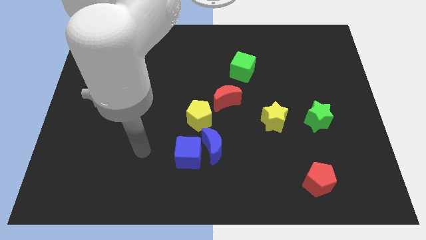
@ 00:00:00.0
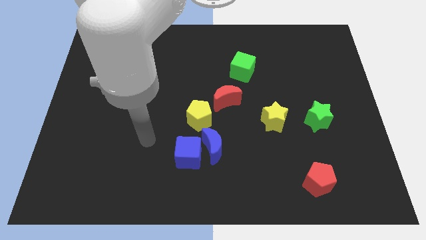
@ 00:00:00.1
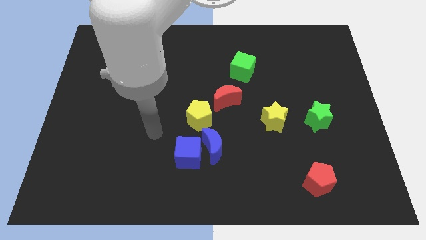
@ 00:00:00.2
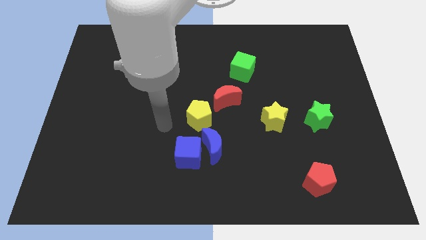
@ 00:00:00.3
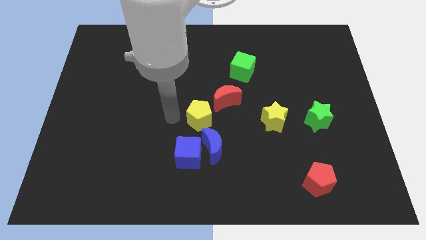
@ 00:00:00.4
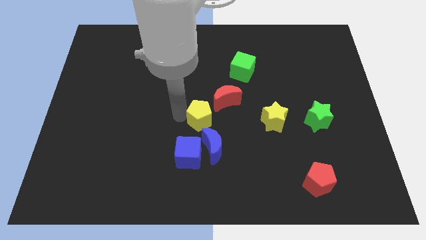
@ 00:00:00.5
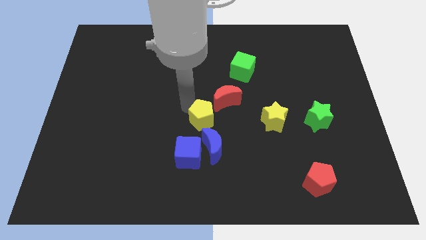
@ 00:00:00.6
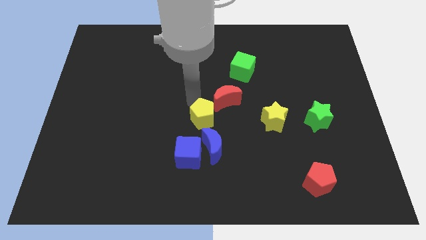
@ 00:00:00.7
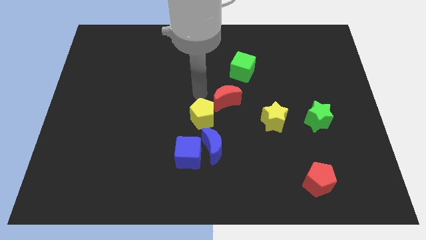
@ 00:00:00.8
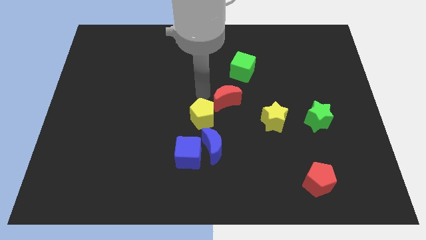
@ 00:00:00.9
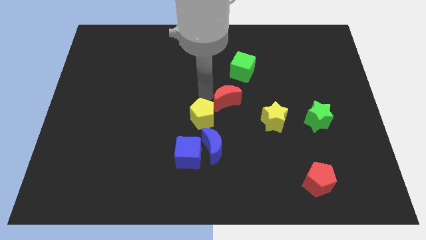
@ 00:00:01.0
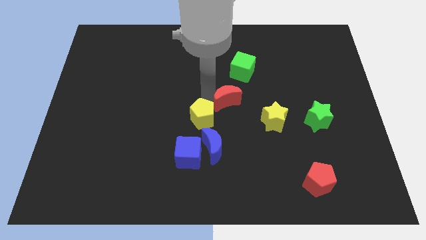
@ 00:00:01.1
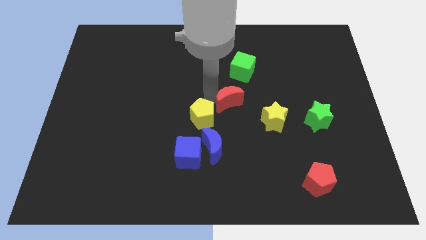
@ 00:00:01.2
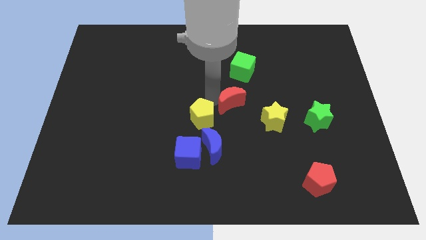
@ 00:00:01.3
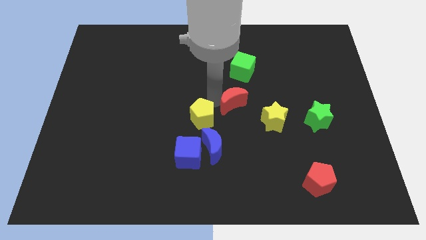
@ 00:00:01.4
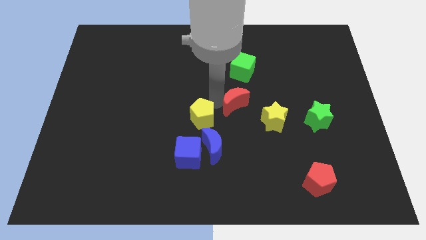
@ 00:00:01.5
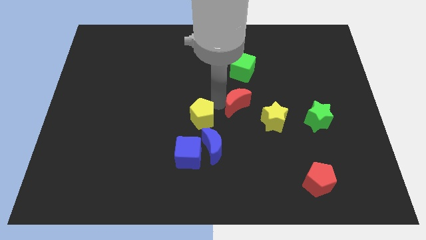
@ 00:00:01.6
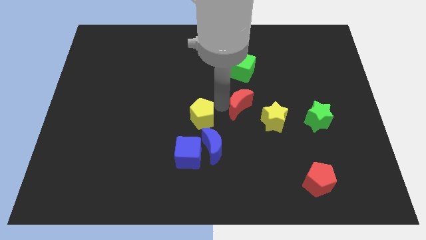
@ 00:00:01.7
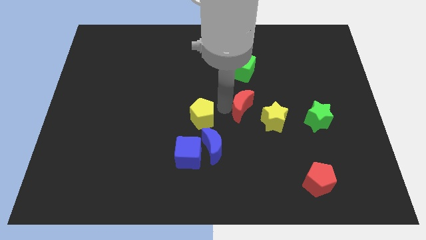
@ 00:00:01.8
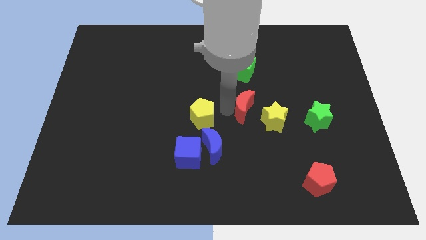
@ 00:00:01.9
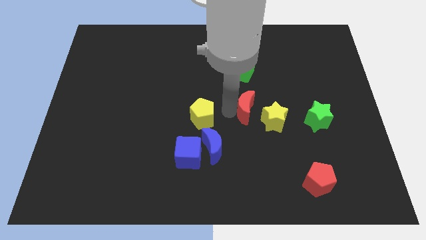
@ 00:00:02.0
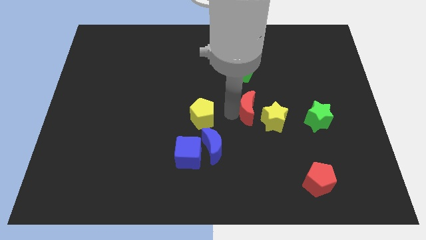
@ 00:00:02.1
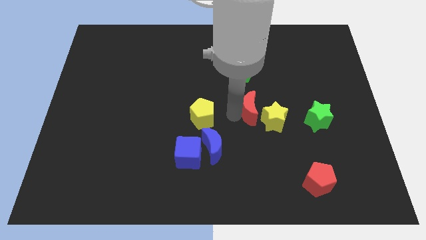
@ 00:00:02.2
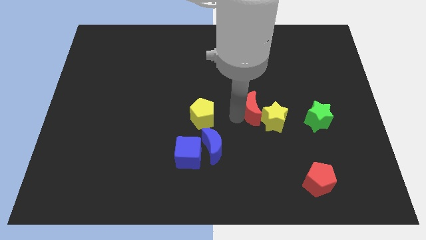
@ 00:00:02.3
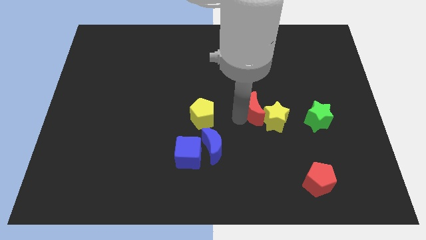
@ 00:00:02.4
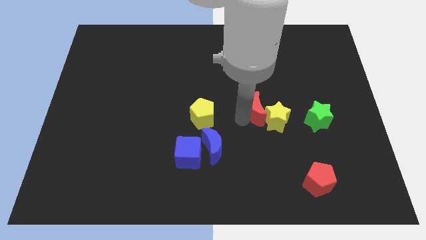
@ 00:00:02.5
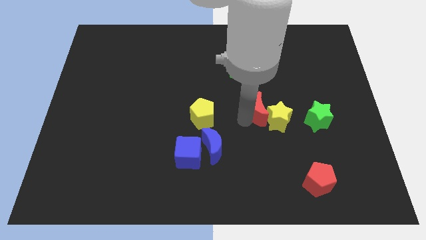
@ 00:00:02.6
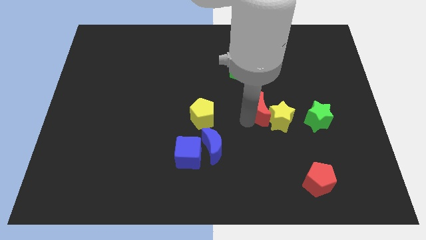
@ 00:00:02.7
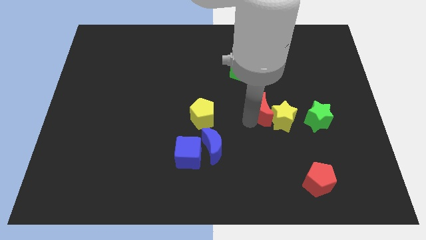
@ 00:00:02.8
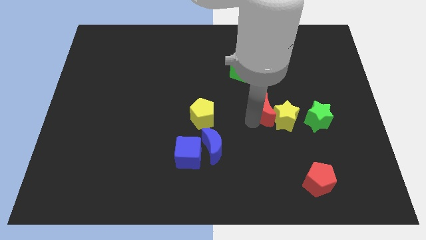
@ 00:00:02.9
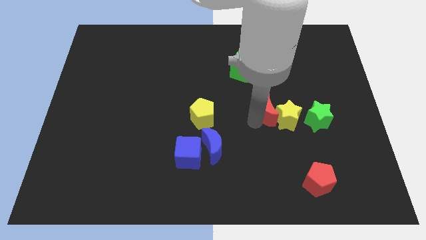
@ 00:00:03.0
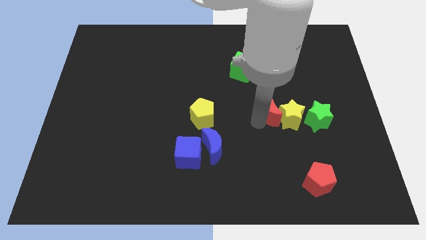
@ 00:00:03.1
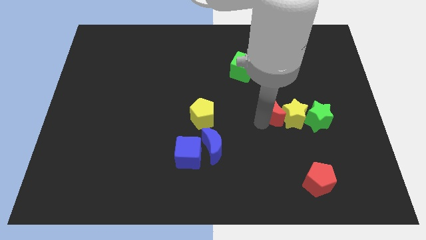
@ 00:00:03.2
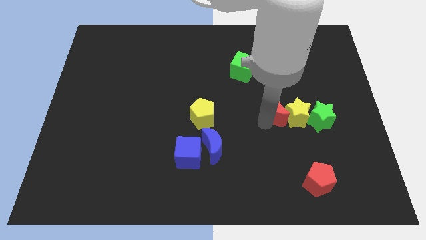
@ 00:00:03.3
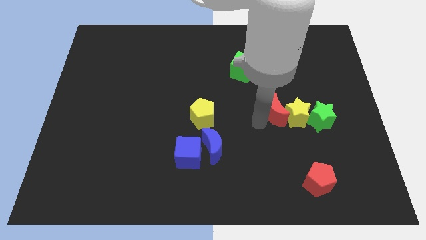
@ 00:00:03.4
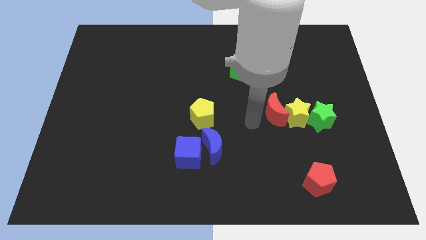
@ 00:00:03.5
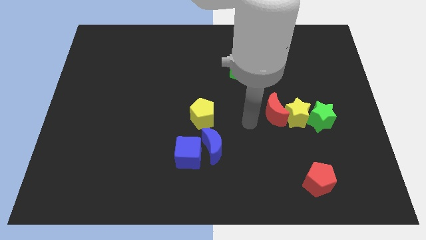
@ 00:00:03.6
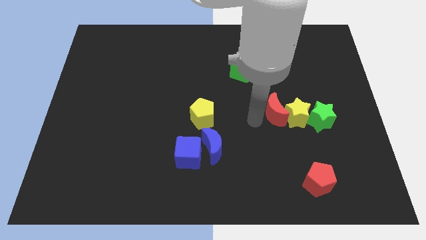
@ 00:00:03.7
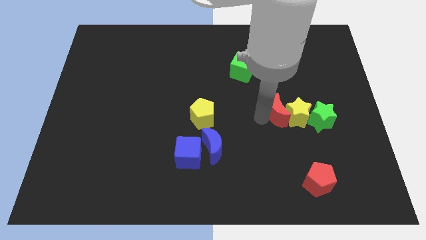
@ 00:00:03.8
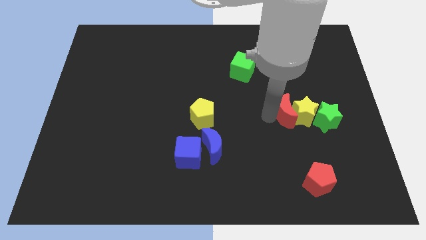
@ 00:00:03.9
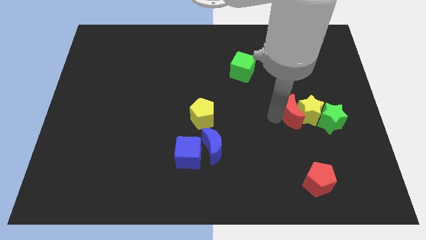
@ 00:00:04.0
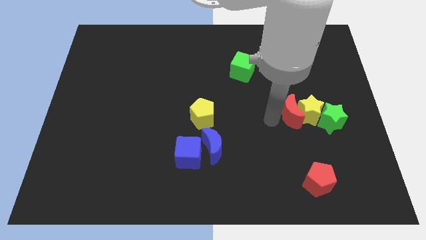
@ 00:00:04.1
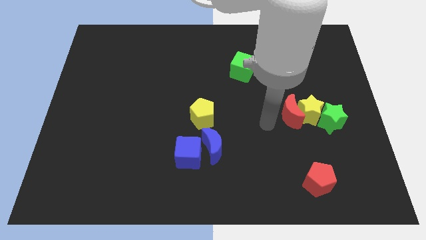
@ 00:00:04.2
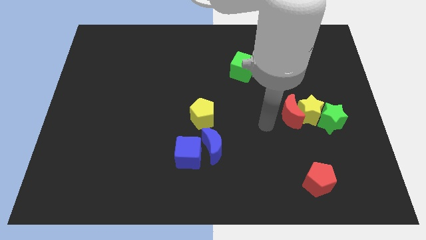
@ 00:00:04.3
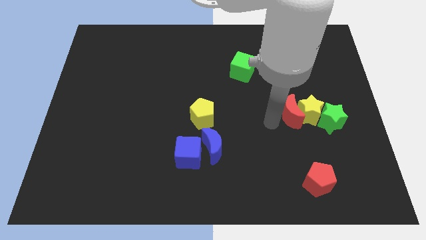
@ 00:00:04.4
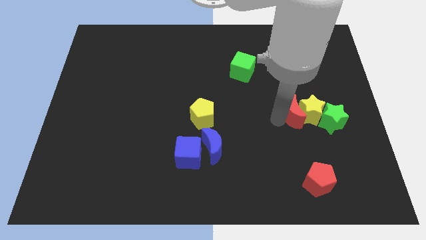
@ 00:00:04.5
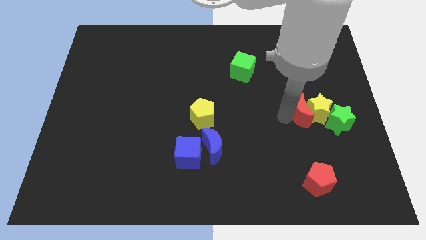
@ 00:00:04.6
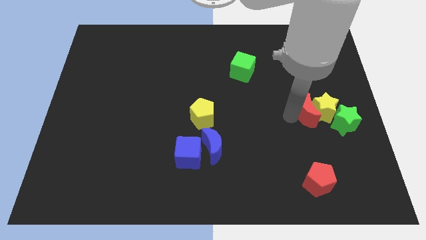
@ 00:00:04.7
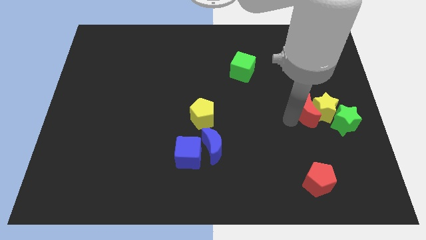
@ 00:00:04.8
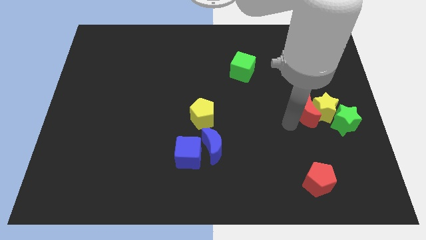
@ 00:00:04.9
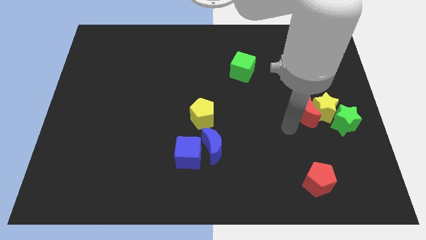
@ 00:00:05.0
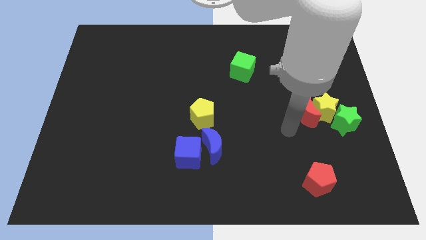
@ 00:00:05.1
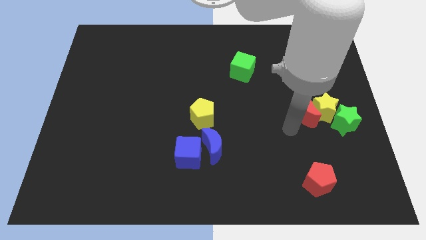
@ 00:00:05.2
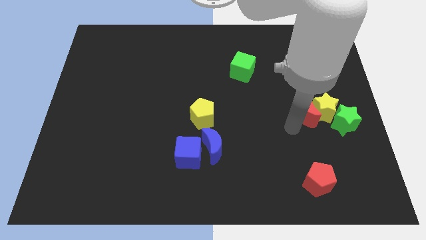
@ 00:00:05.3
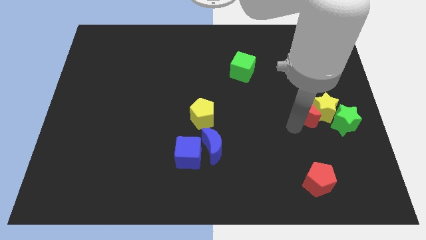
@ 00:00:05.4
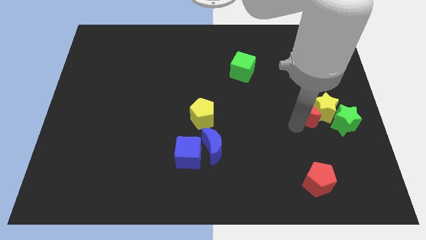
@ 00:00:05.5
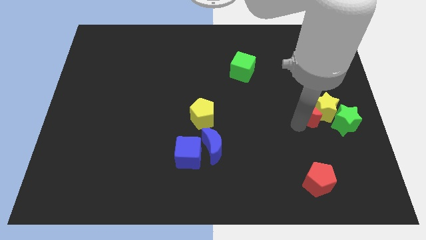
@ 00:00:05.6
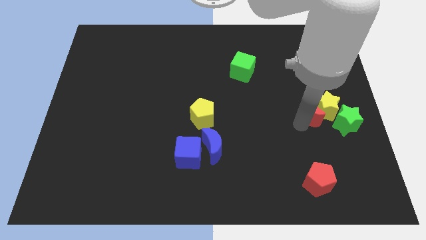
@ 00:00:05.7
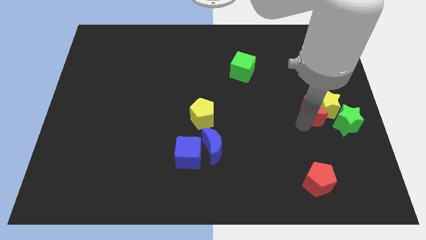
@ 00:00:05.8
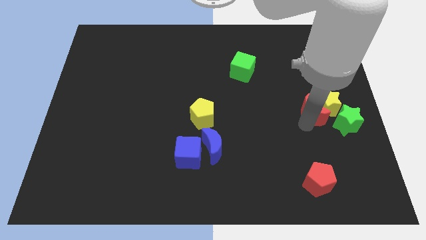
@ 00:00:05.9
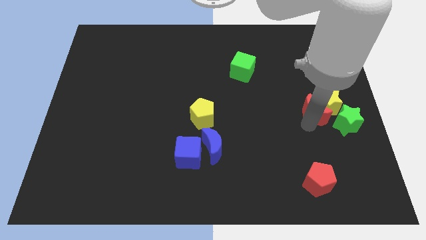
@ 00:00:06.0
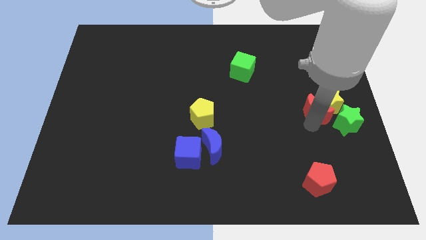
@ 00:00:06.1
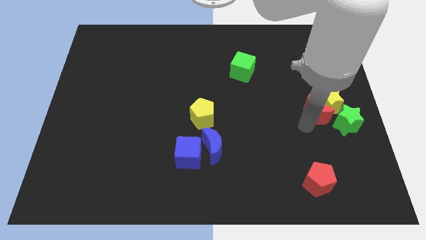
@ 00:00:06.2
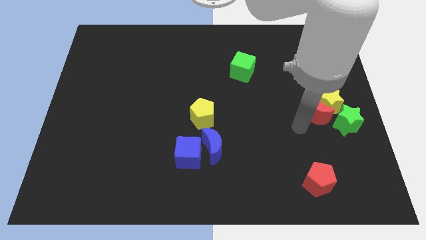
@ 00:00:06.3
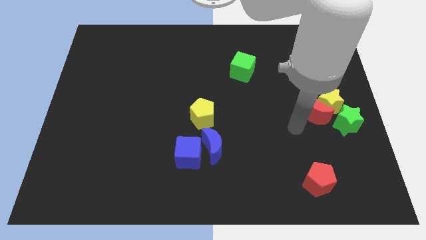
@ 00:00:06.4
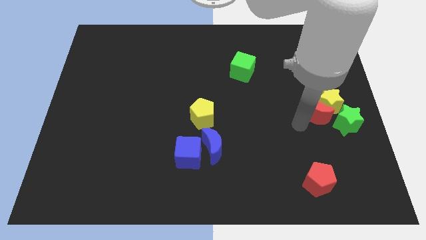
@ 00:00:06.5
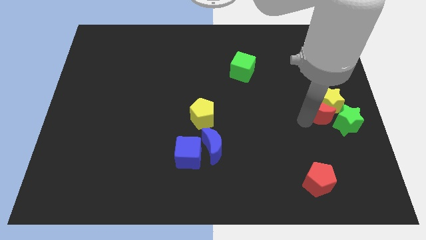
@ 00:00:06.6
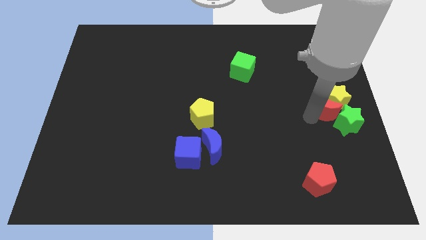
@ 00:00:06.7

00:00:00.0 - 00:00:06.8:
put the red moon to the right side of the board
